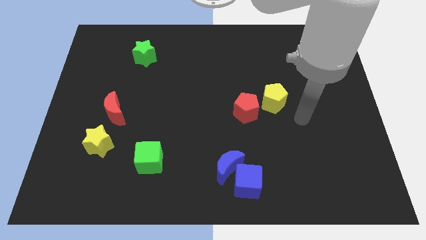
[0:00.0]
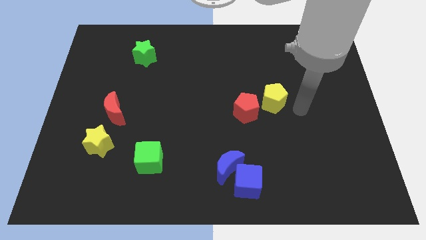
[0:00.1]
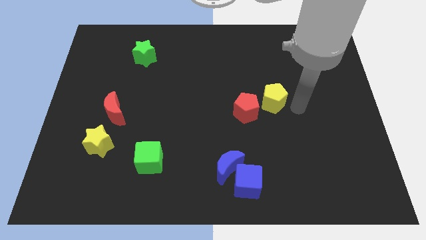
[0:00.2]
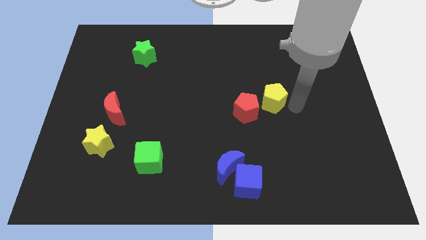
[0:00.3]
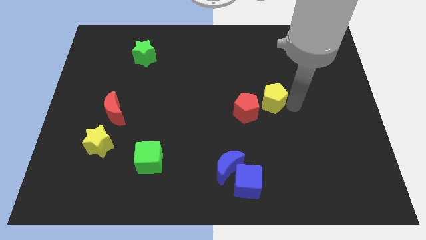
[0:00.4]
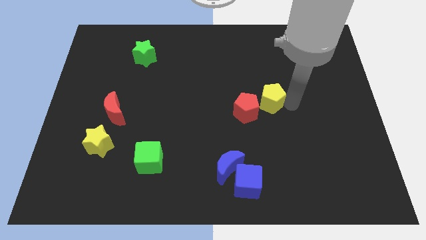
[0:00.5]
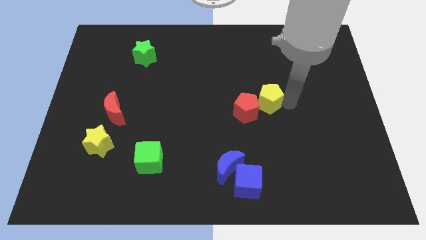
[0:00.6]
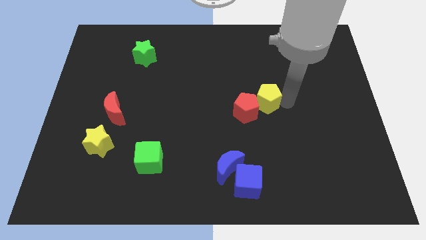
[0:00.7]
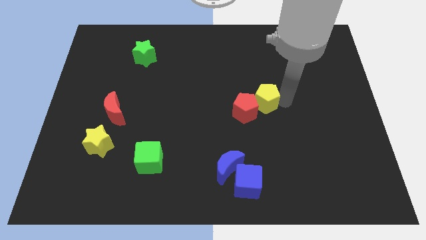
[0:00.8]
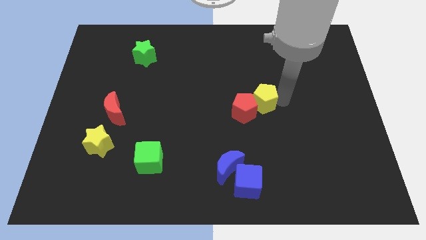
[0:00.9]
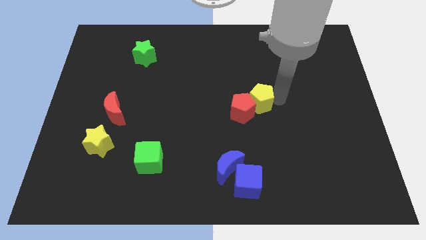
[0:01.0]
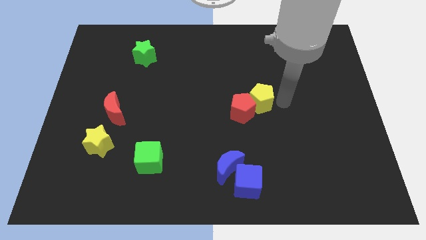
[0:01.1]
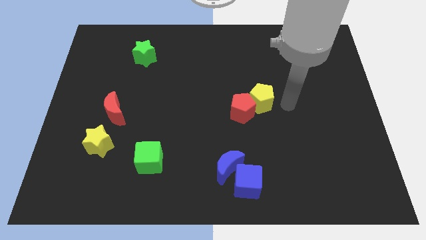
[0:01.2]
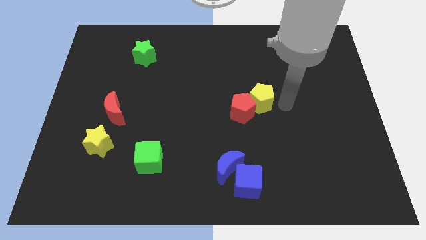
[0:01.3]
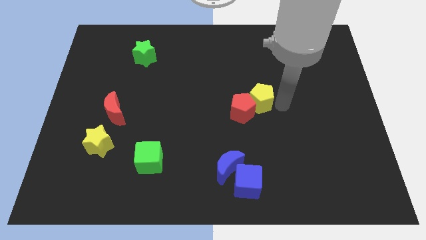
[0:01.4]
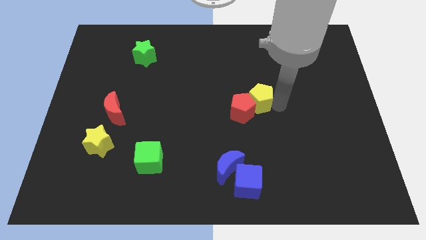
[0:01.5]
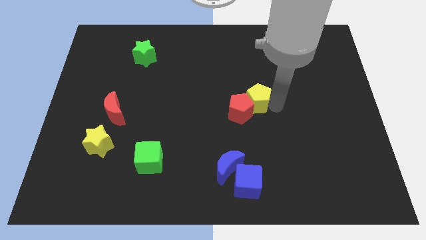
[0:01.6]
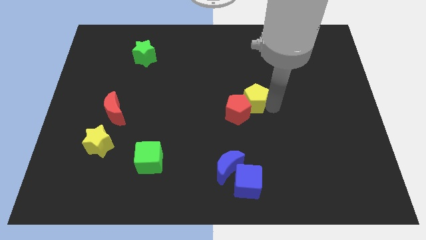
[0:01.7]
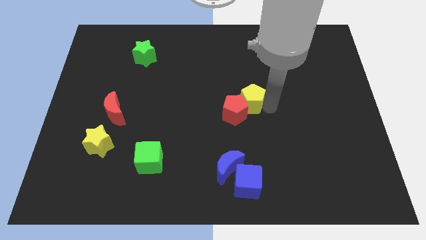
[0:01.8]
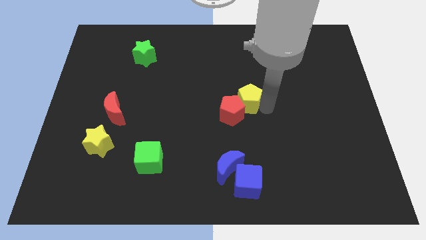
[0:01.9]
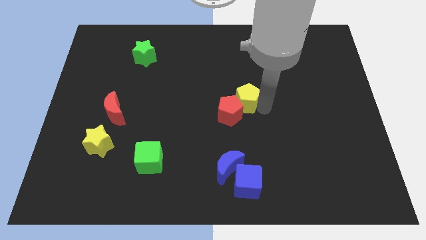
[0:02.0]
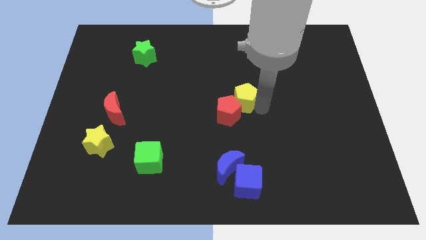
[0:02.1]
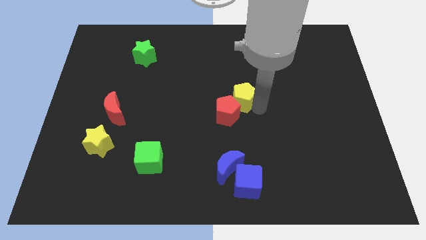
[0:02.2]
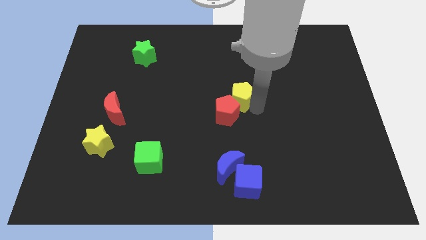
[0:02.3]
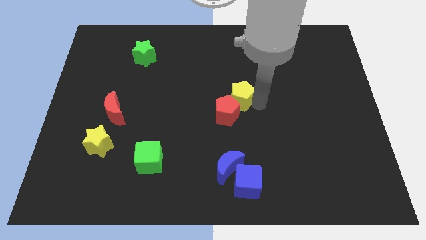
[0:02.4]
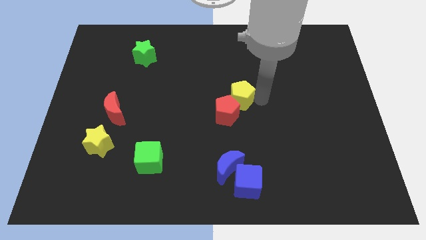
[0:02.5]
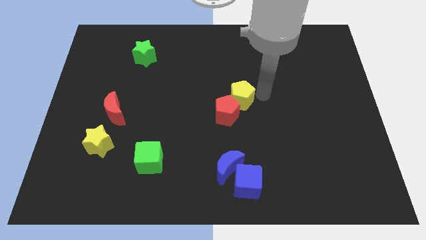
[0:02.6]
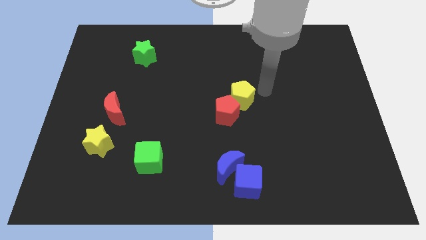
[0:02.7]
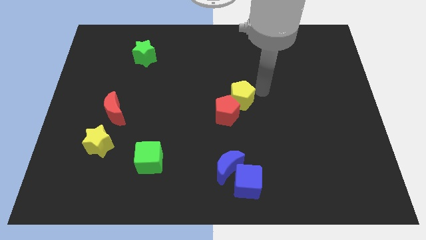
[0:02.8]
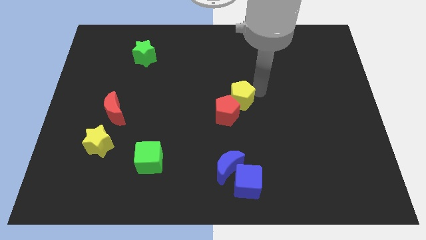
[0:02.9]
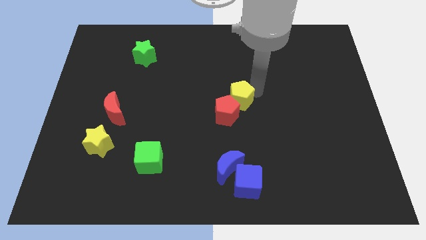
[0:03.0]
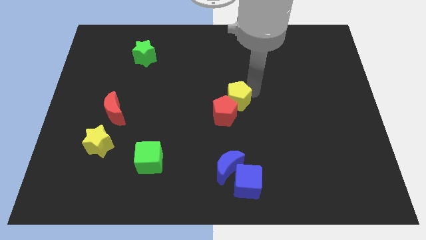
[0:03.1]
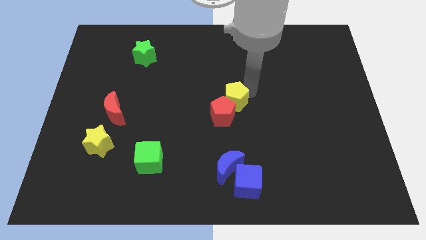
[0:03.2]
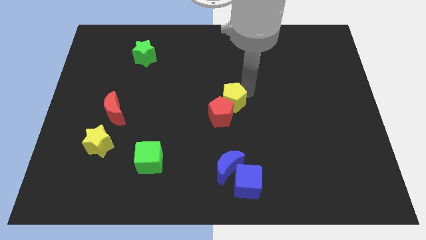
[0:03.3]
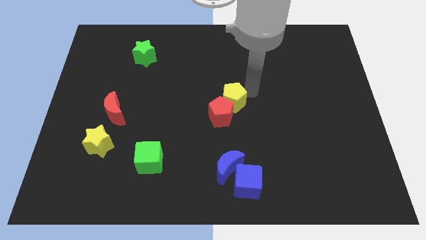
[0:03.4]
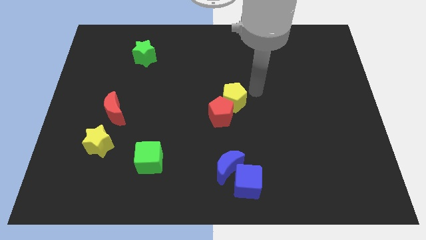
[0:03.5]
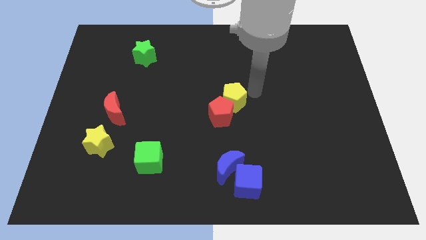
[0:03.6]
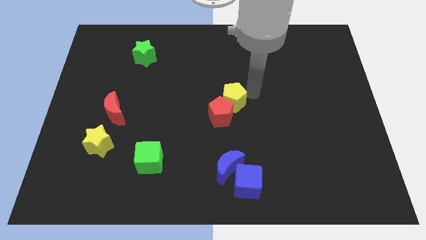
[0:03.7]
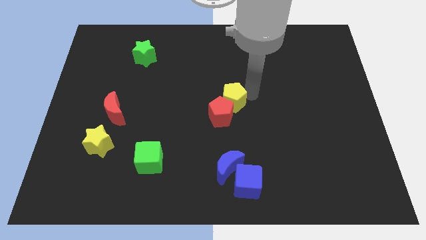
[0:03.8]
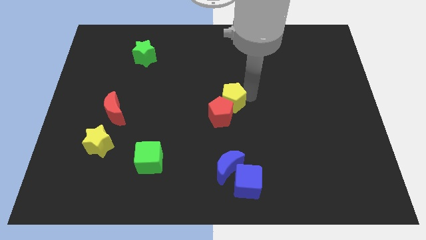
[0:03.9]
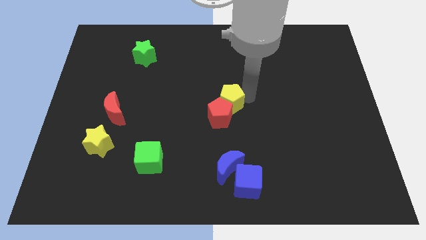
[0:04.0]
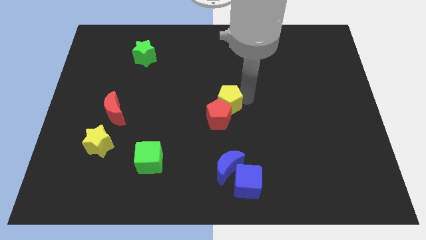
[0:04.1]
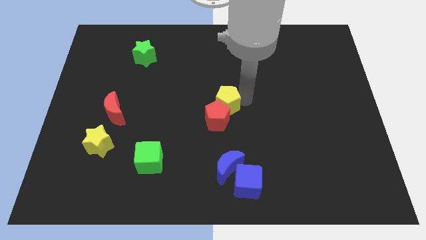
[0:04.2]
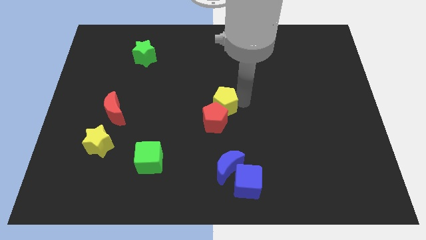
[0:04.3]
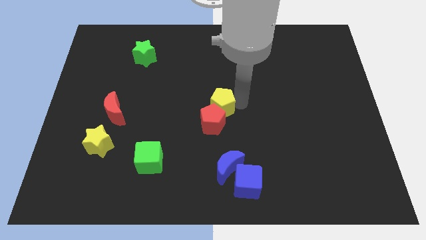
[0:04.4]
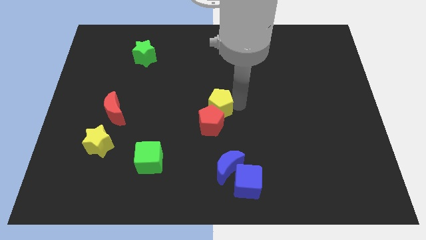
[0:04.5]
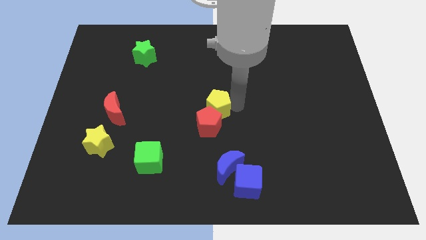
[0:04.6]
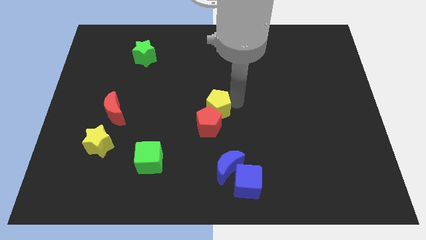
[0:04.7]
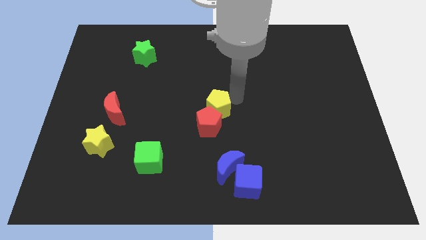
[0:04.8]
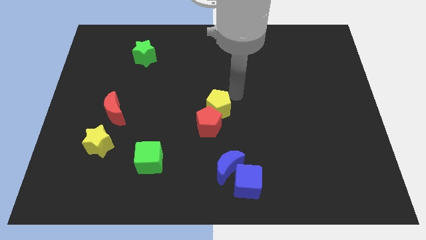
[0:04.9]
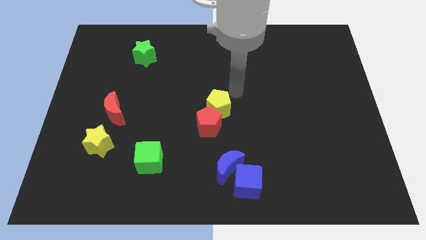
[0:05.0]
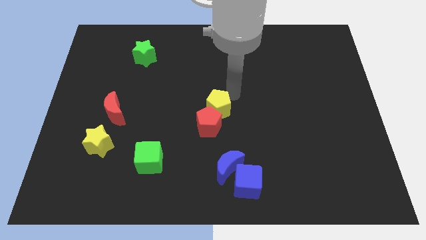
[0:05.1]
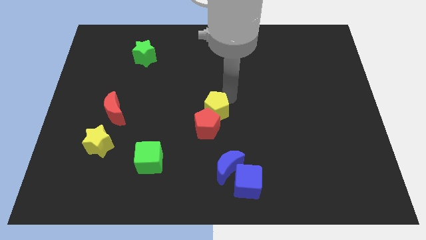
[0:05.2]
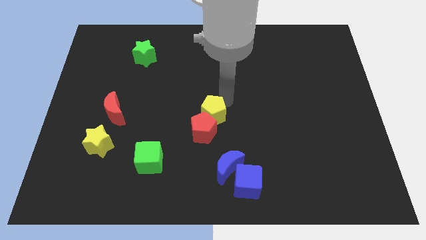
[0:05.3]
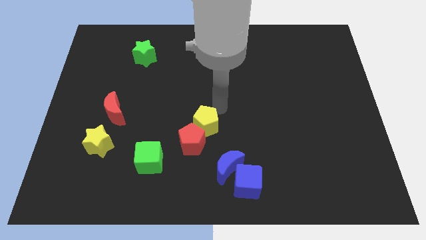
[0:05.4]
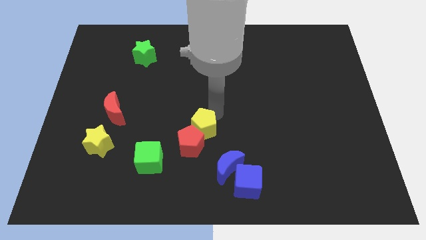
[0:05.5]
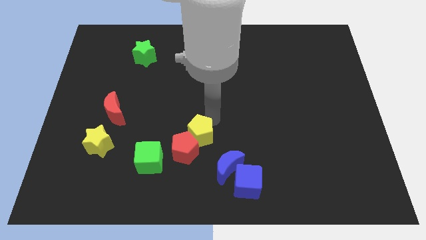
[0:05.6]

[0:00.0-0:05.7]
push the yellow pentagon to the top right of the green cube

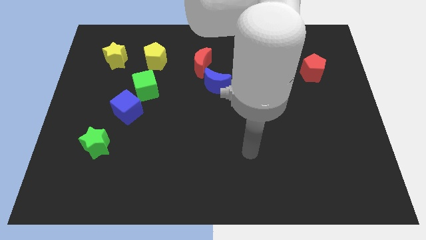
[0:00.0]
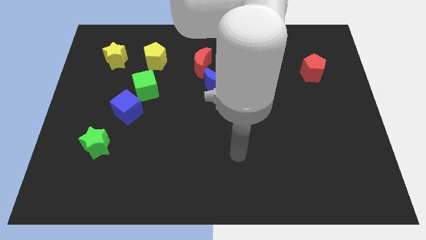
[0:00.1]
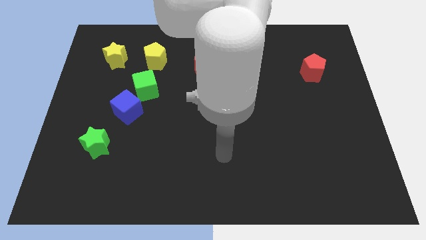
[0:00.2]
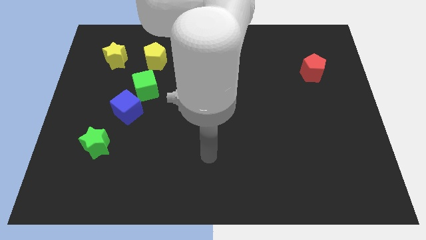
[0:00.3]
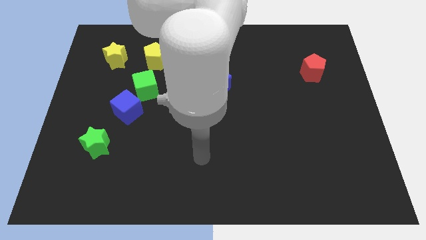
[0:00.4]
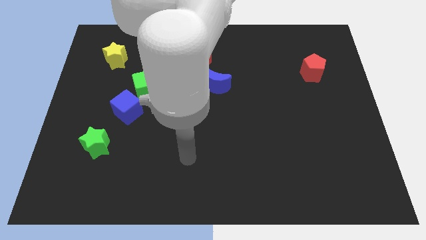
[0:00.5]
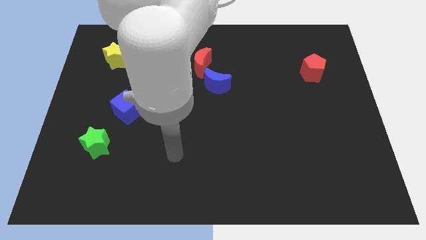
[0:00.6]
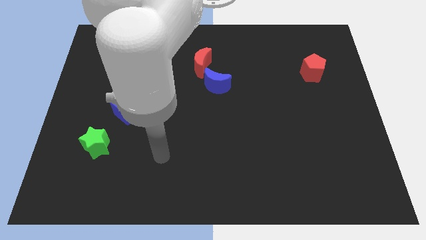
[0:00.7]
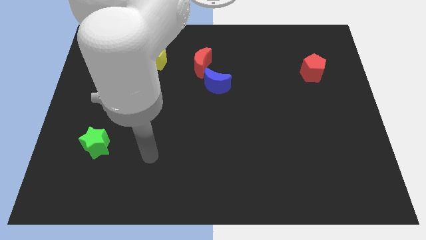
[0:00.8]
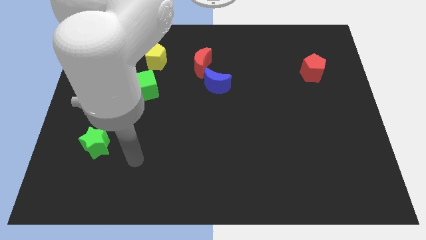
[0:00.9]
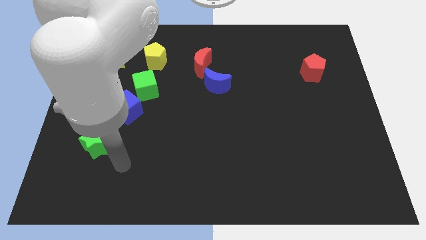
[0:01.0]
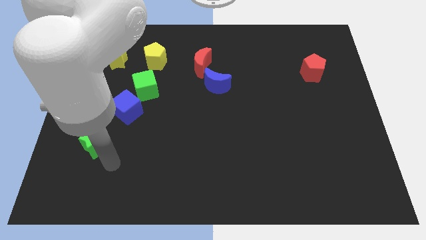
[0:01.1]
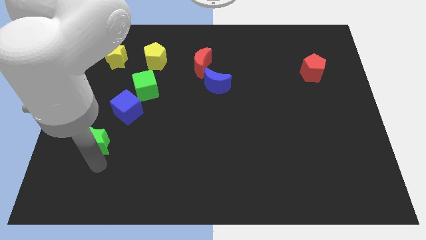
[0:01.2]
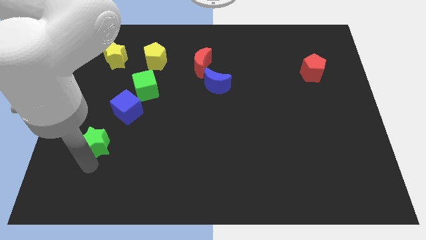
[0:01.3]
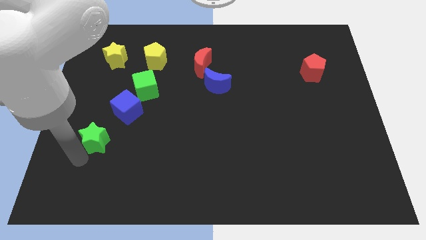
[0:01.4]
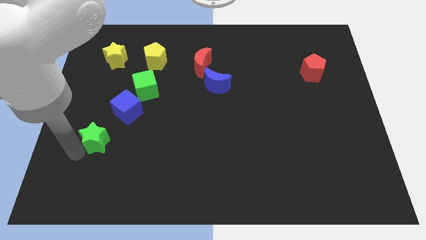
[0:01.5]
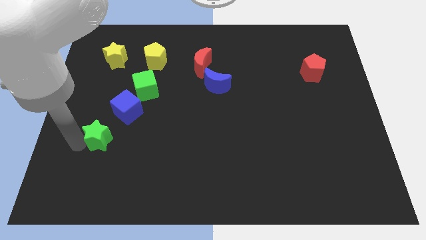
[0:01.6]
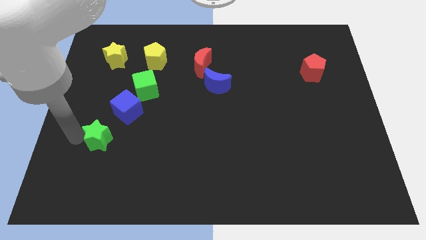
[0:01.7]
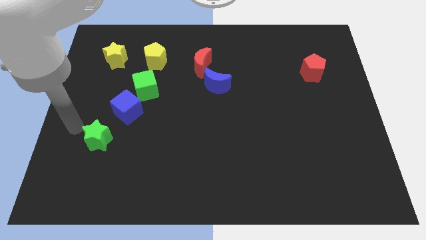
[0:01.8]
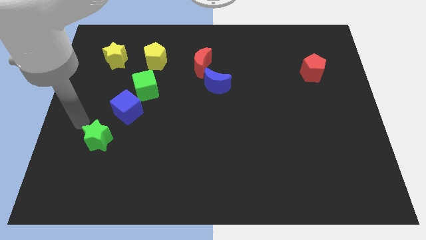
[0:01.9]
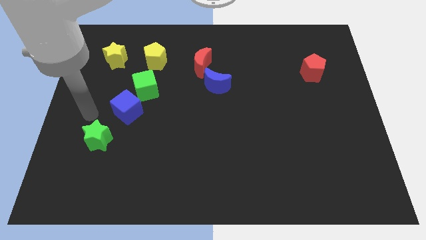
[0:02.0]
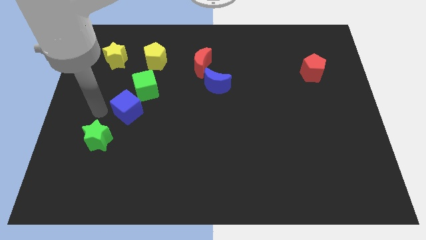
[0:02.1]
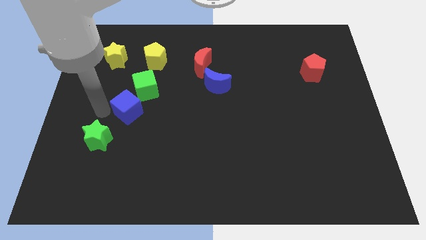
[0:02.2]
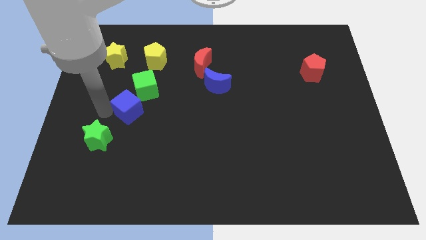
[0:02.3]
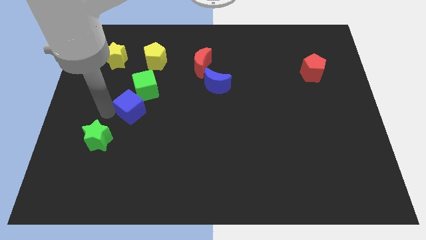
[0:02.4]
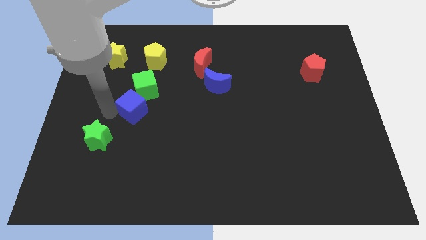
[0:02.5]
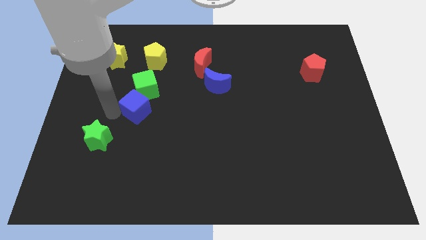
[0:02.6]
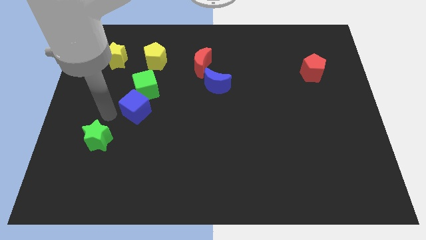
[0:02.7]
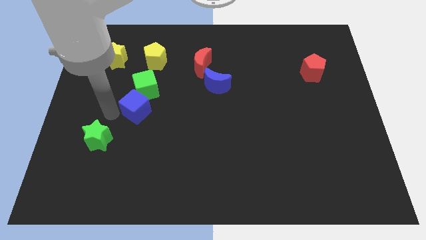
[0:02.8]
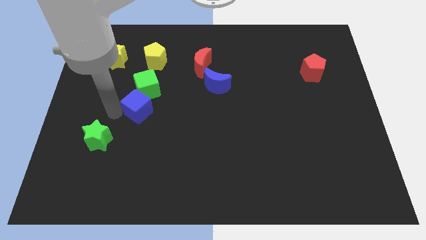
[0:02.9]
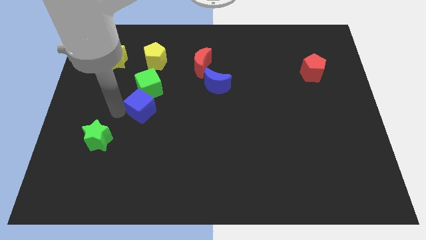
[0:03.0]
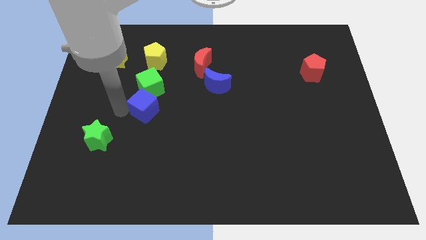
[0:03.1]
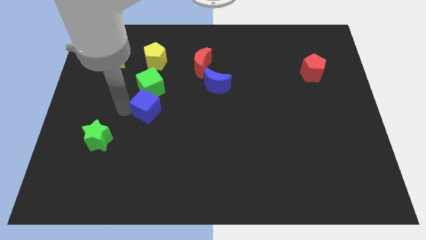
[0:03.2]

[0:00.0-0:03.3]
push the blue cube to the bottom right of the green cube
